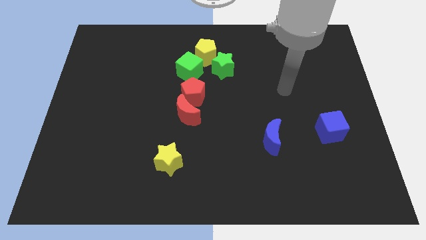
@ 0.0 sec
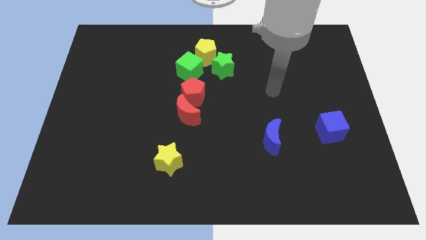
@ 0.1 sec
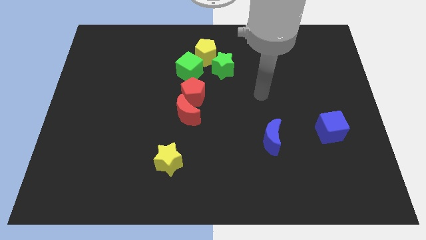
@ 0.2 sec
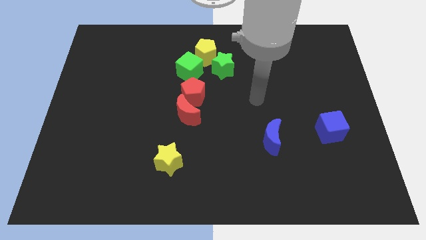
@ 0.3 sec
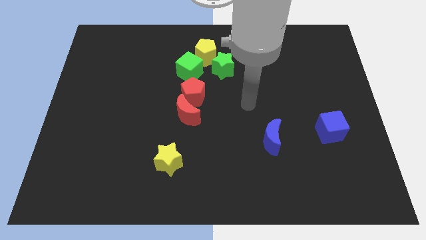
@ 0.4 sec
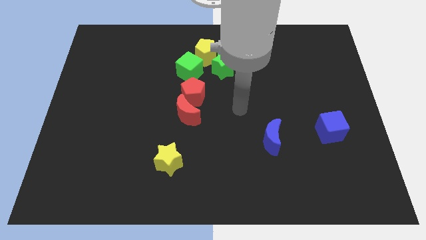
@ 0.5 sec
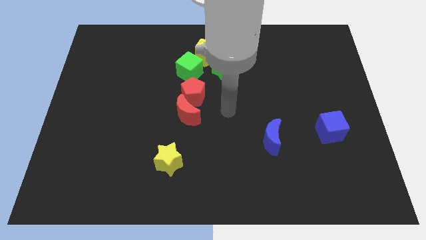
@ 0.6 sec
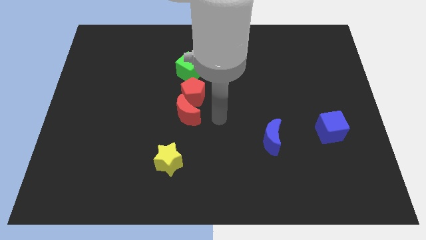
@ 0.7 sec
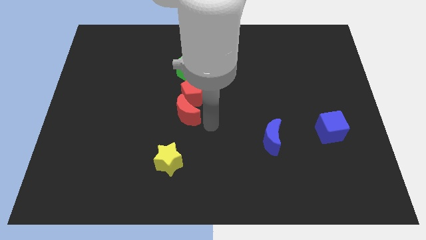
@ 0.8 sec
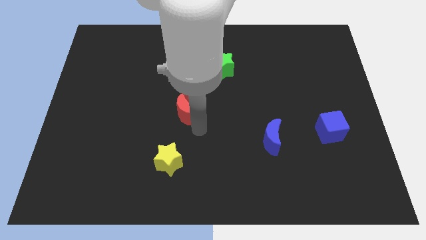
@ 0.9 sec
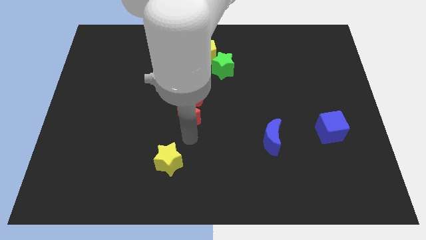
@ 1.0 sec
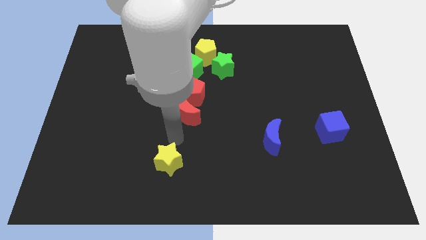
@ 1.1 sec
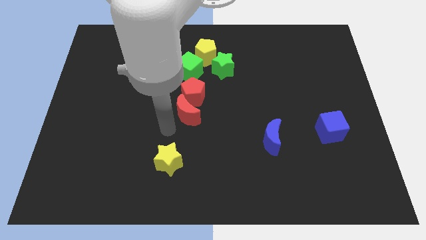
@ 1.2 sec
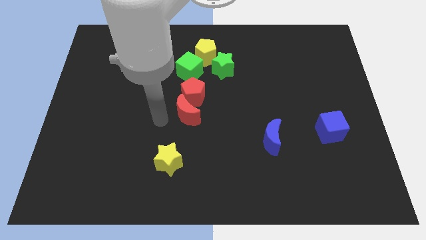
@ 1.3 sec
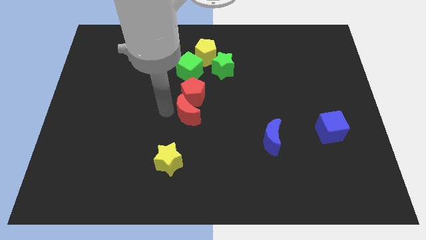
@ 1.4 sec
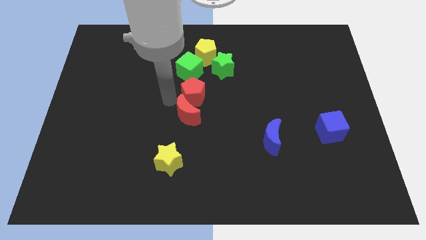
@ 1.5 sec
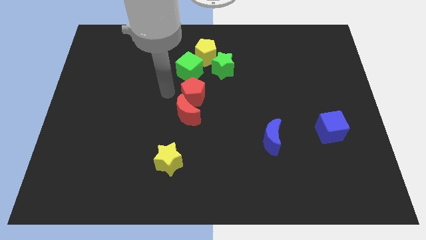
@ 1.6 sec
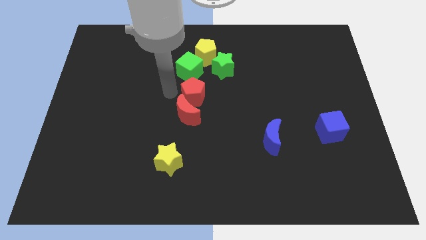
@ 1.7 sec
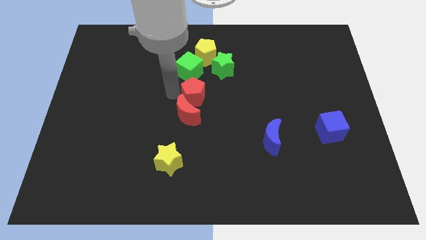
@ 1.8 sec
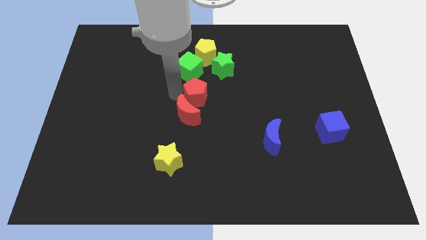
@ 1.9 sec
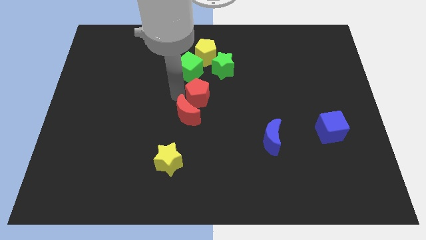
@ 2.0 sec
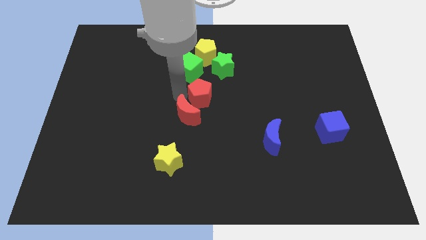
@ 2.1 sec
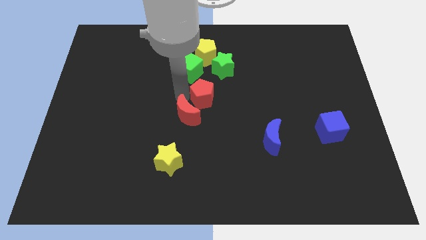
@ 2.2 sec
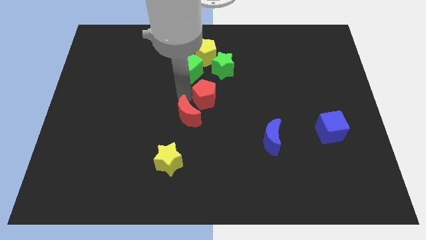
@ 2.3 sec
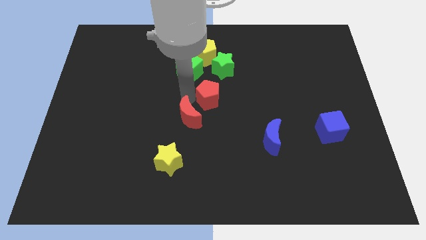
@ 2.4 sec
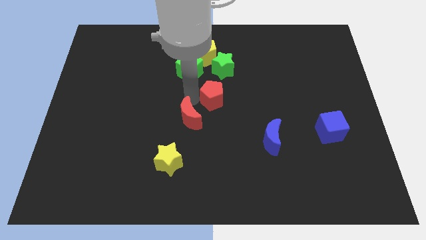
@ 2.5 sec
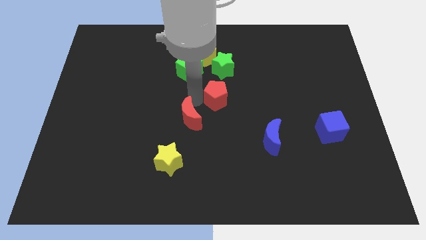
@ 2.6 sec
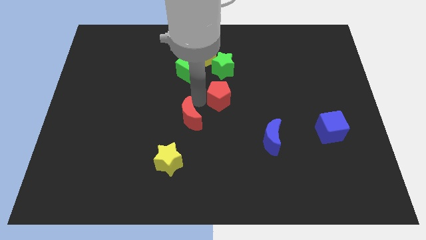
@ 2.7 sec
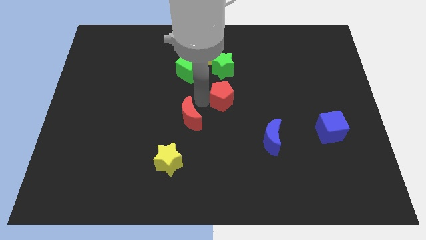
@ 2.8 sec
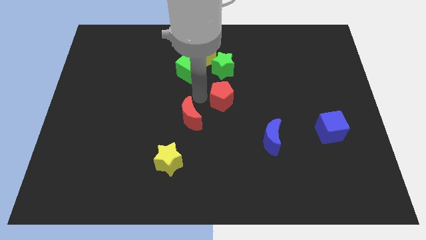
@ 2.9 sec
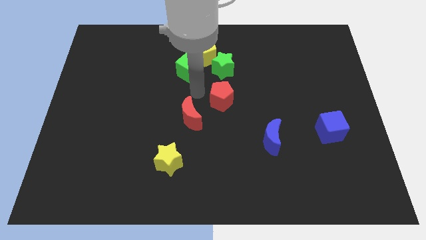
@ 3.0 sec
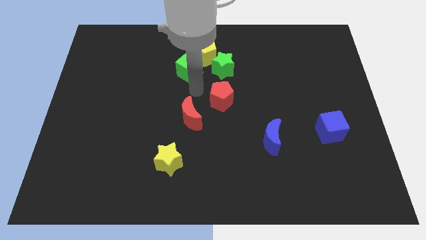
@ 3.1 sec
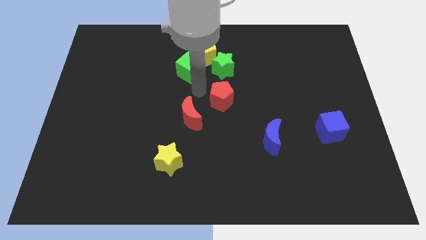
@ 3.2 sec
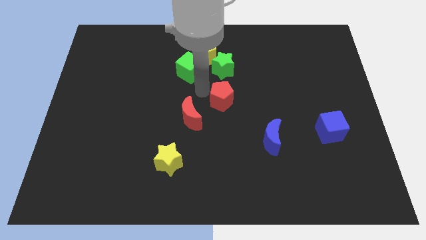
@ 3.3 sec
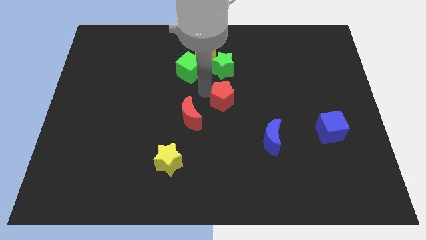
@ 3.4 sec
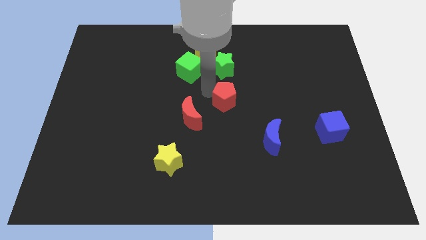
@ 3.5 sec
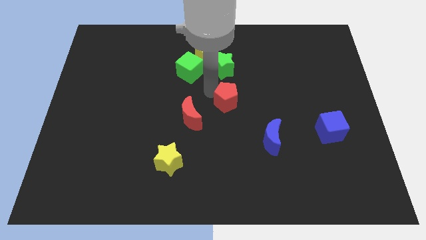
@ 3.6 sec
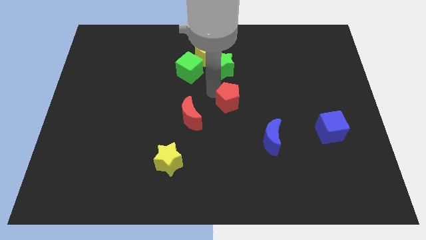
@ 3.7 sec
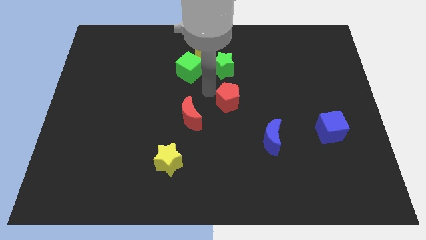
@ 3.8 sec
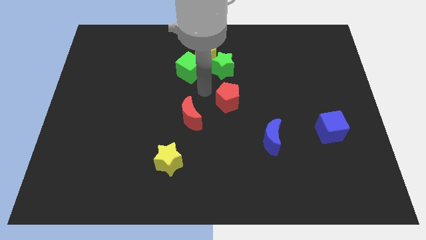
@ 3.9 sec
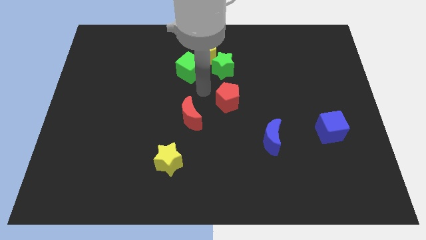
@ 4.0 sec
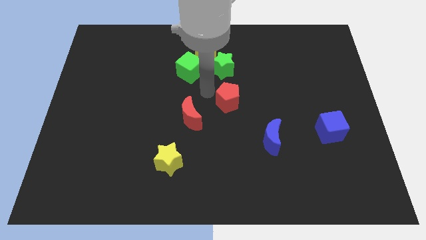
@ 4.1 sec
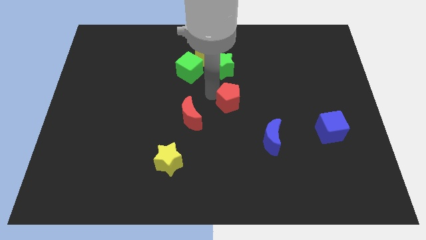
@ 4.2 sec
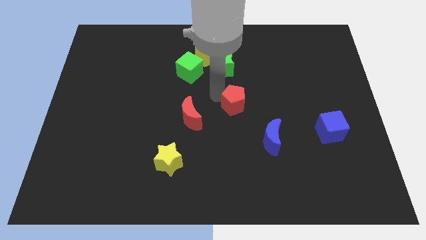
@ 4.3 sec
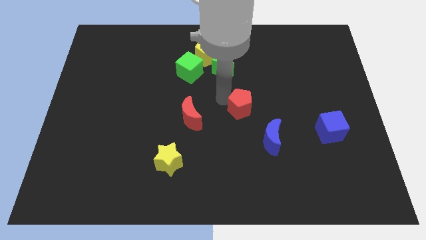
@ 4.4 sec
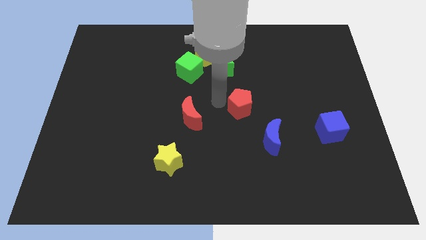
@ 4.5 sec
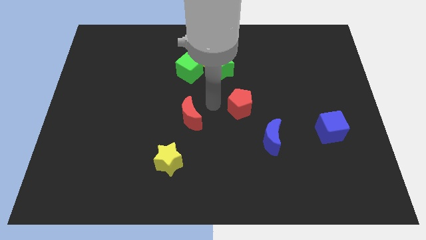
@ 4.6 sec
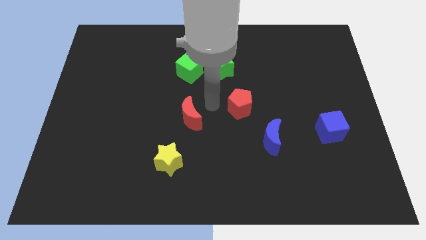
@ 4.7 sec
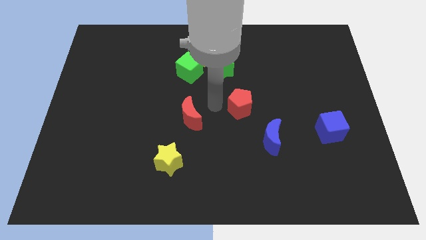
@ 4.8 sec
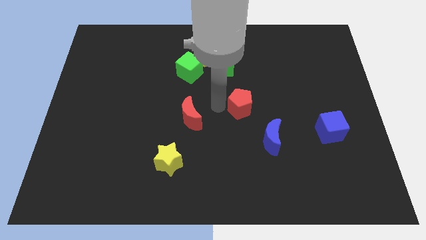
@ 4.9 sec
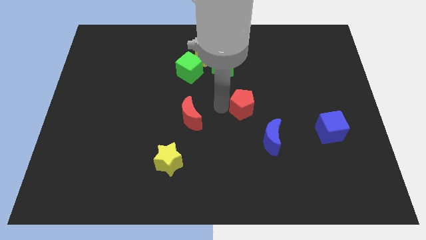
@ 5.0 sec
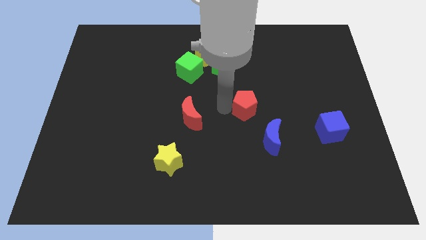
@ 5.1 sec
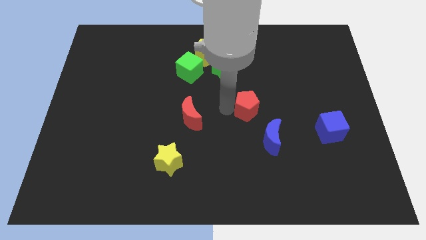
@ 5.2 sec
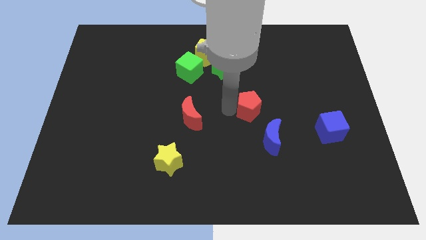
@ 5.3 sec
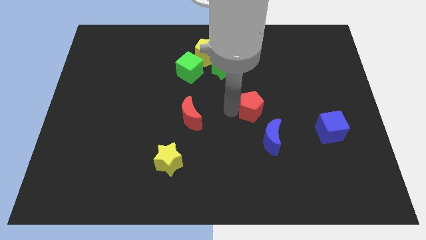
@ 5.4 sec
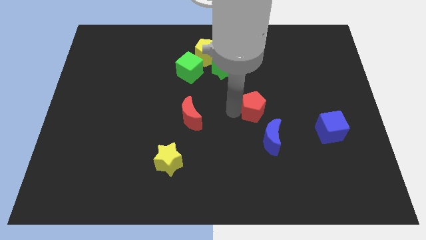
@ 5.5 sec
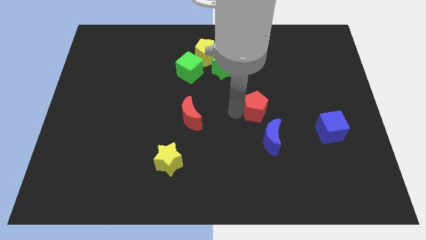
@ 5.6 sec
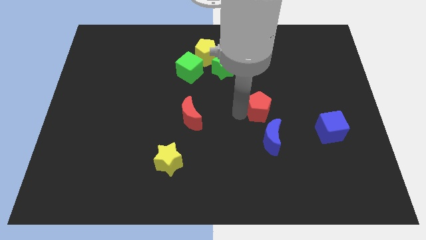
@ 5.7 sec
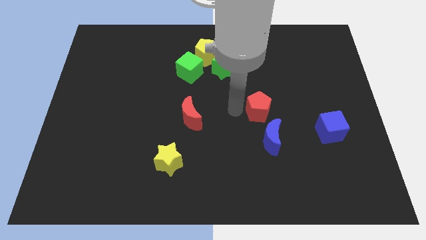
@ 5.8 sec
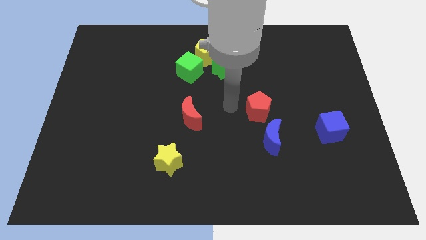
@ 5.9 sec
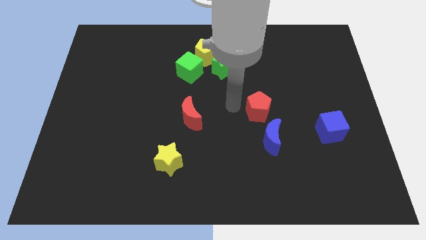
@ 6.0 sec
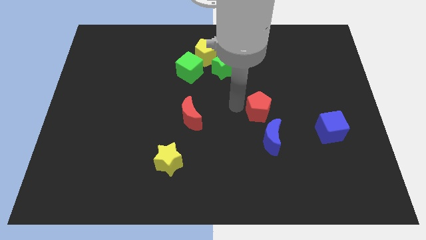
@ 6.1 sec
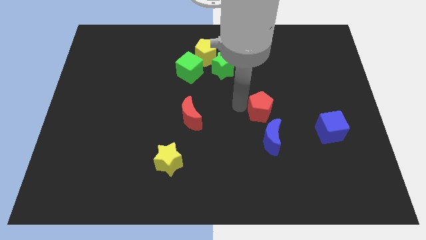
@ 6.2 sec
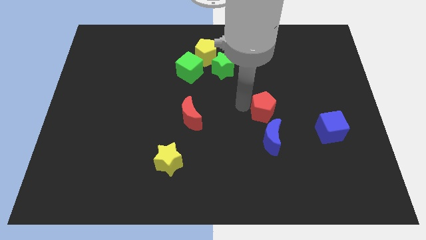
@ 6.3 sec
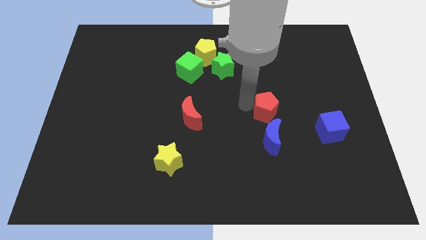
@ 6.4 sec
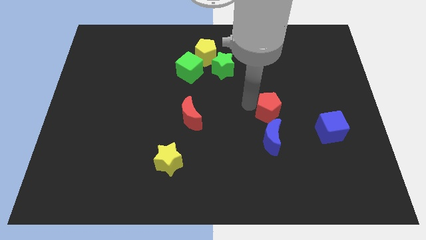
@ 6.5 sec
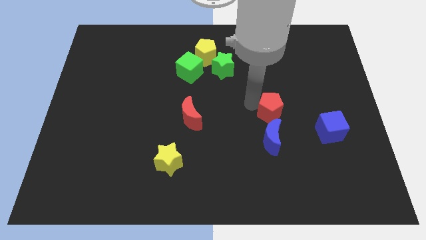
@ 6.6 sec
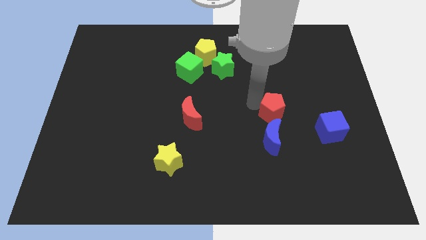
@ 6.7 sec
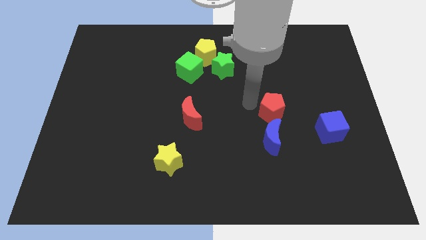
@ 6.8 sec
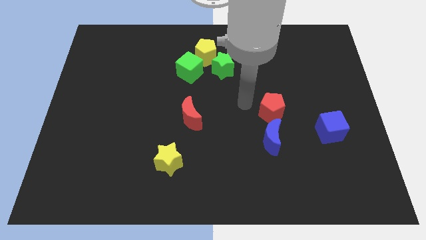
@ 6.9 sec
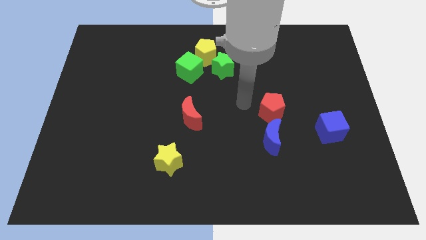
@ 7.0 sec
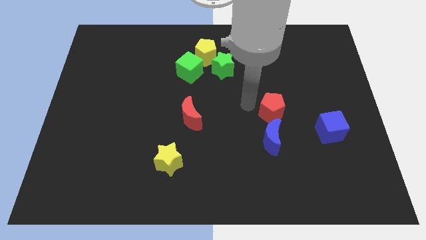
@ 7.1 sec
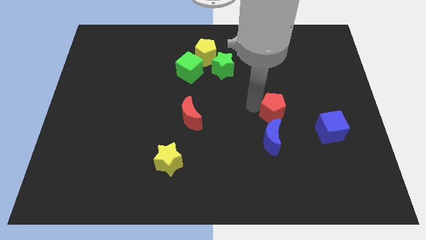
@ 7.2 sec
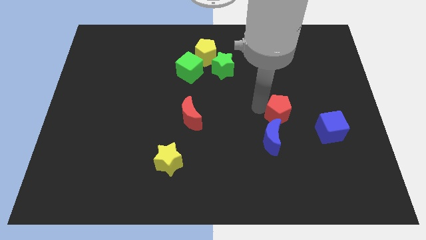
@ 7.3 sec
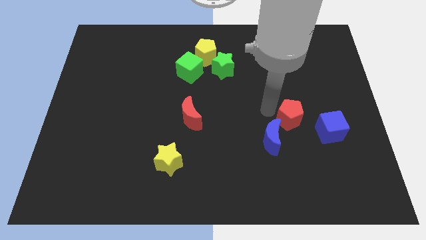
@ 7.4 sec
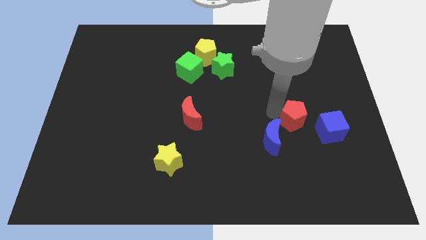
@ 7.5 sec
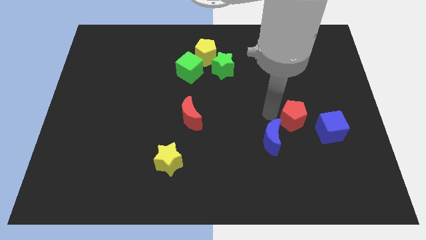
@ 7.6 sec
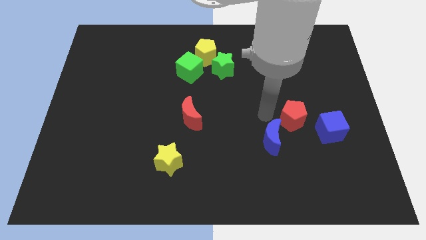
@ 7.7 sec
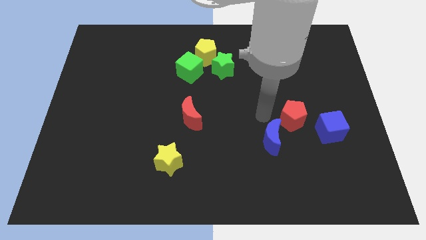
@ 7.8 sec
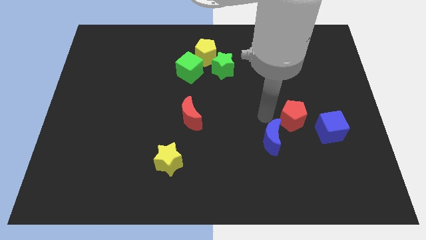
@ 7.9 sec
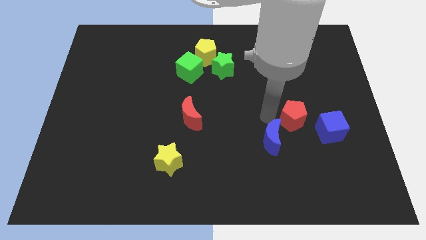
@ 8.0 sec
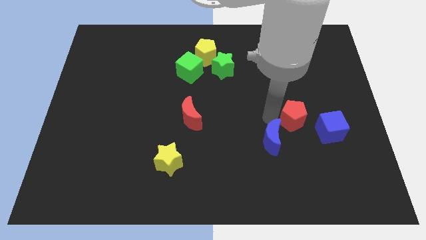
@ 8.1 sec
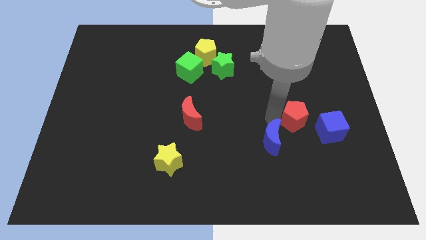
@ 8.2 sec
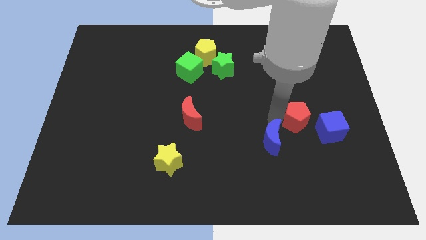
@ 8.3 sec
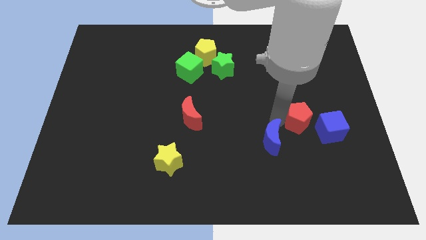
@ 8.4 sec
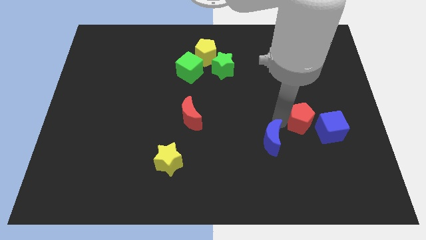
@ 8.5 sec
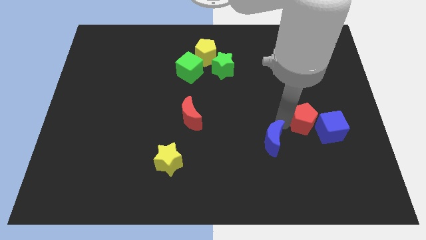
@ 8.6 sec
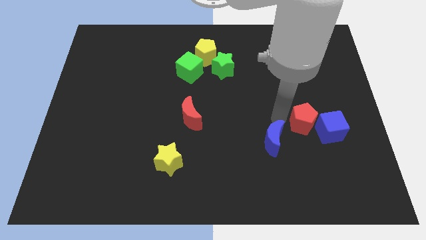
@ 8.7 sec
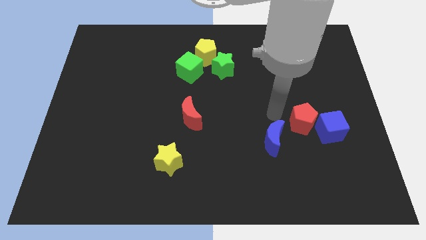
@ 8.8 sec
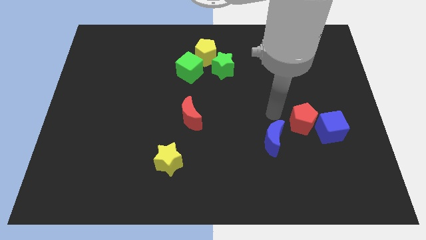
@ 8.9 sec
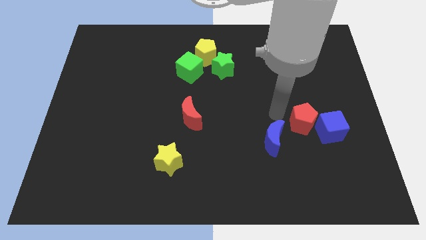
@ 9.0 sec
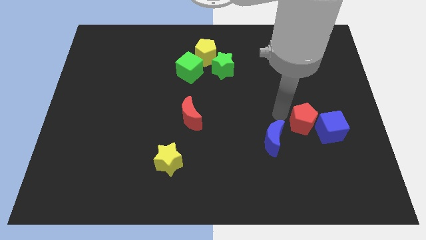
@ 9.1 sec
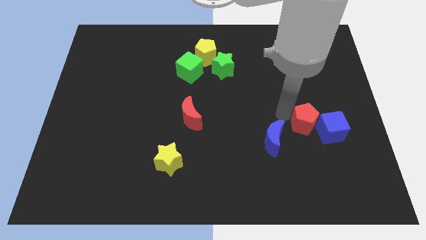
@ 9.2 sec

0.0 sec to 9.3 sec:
push the red pentagon to the blue cube
